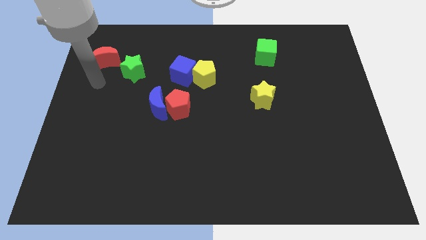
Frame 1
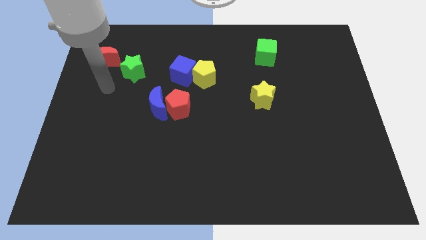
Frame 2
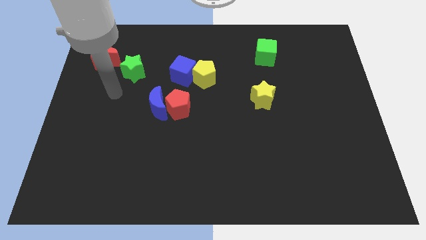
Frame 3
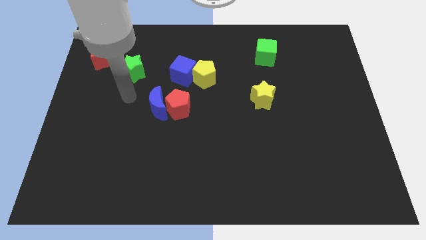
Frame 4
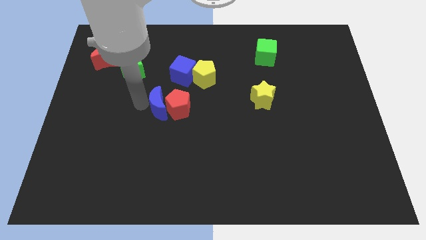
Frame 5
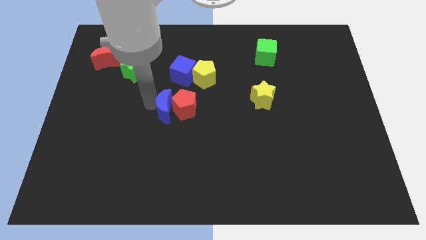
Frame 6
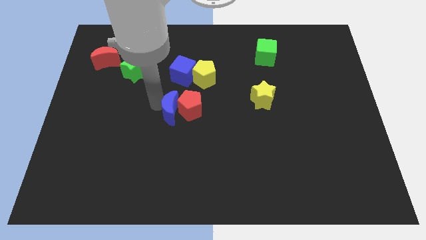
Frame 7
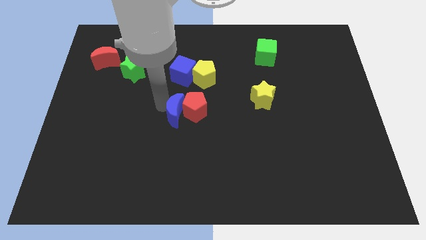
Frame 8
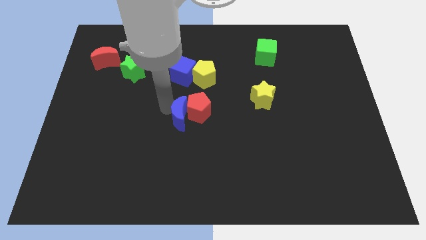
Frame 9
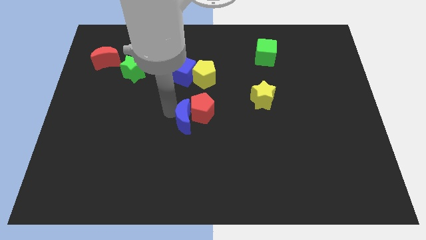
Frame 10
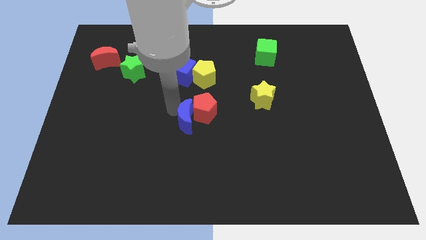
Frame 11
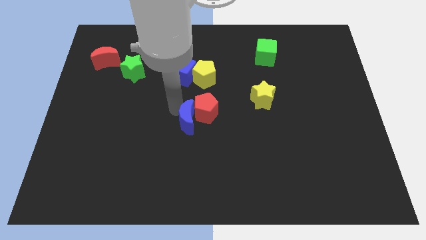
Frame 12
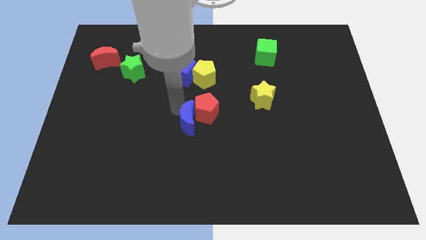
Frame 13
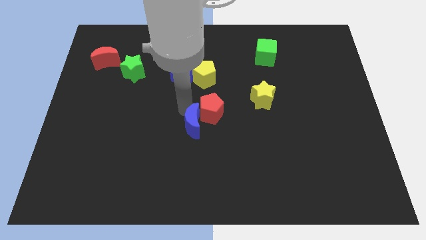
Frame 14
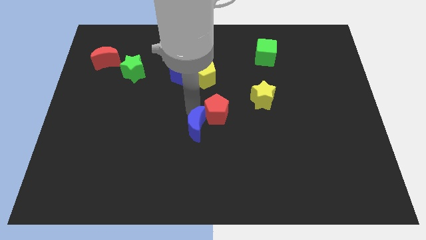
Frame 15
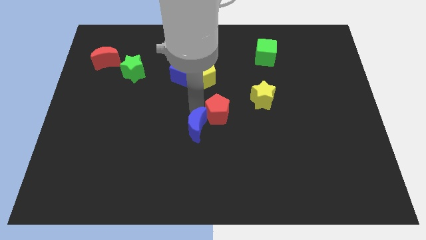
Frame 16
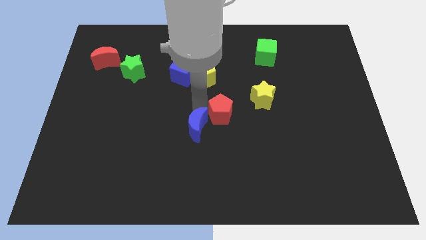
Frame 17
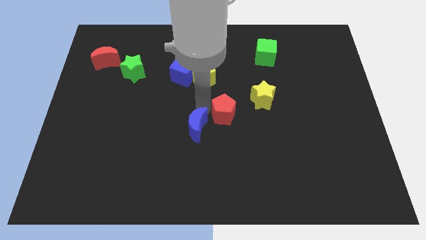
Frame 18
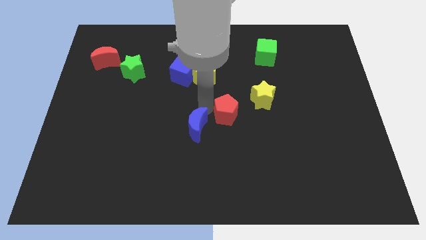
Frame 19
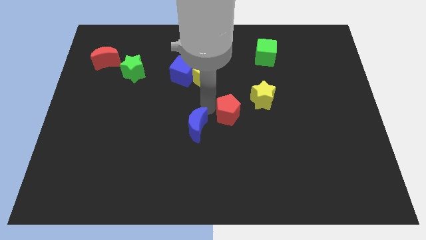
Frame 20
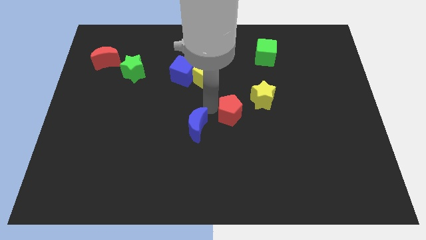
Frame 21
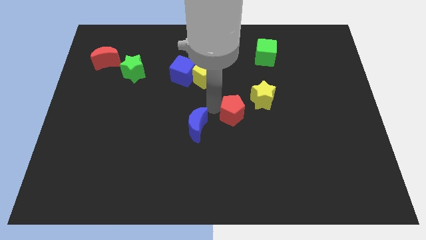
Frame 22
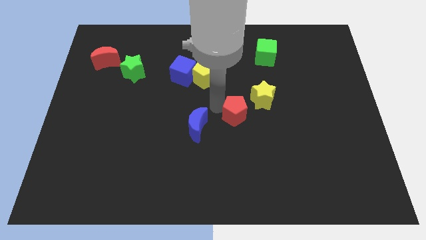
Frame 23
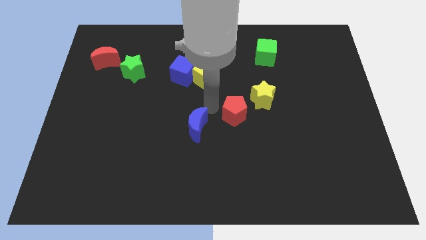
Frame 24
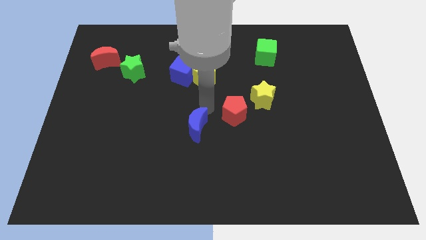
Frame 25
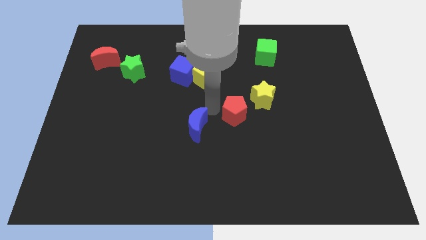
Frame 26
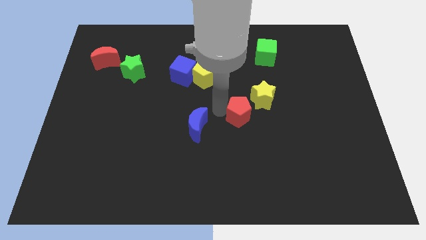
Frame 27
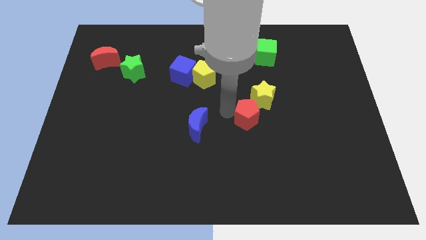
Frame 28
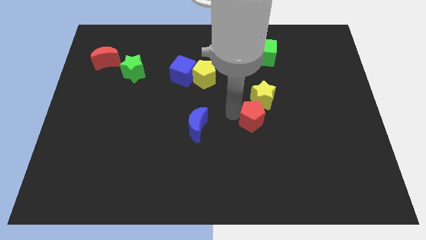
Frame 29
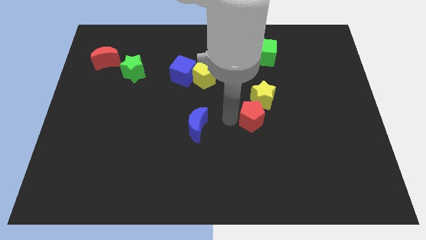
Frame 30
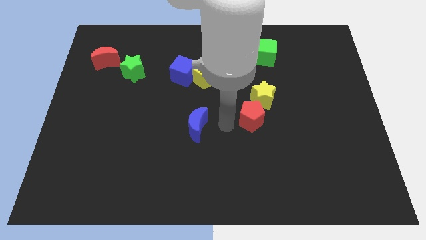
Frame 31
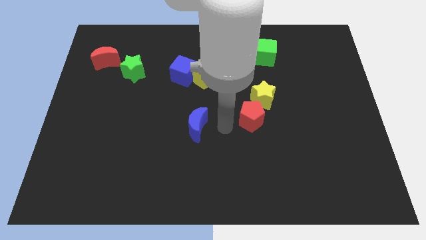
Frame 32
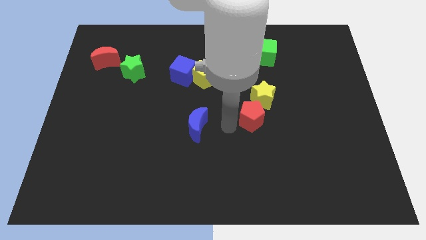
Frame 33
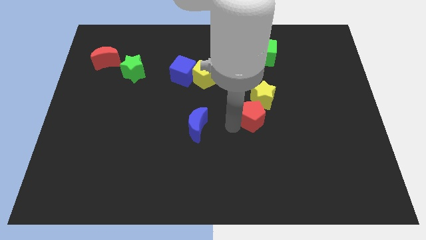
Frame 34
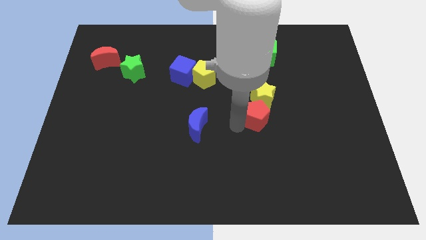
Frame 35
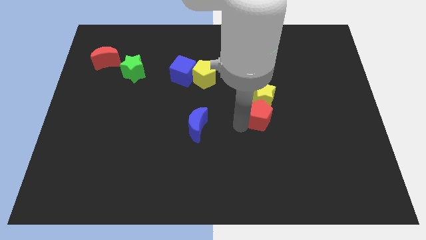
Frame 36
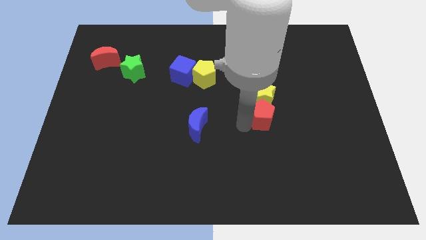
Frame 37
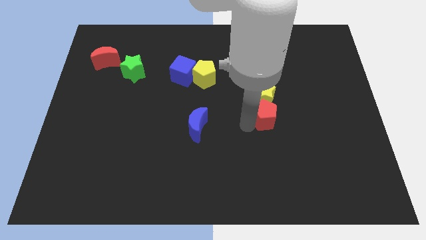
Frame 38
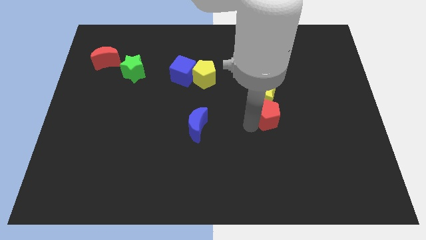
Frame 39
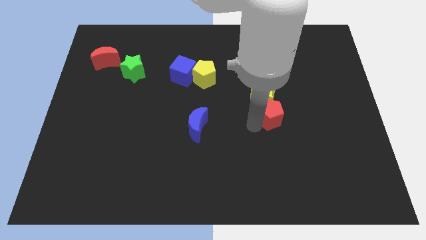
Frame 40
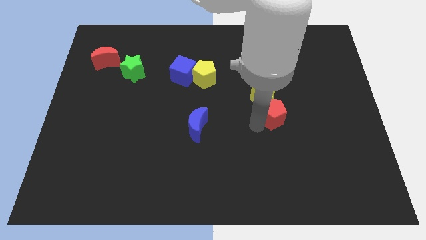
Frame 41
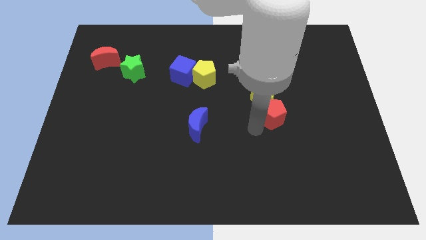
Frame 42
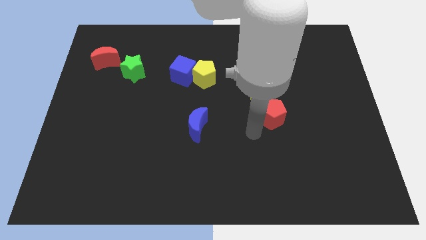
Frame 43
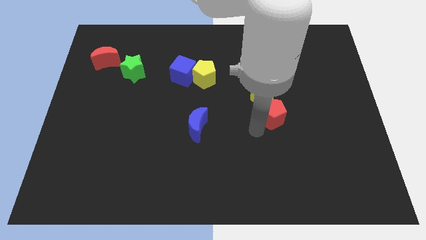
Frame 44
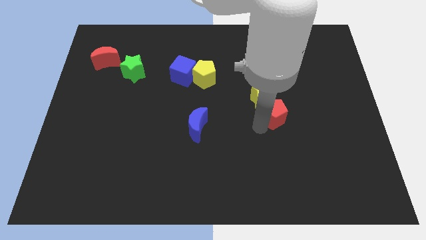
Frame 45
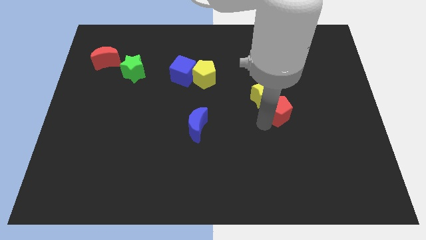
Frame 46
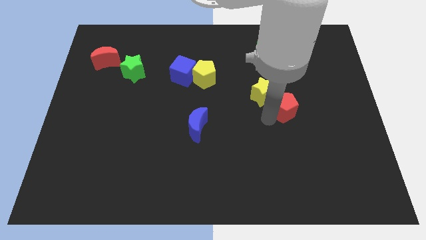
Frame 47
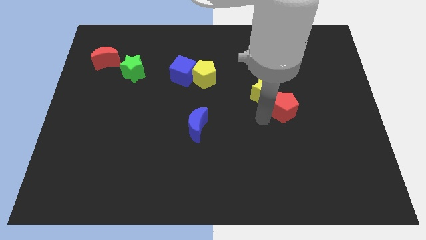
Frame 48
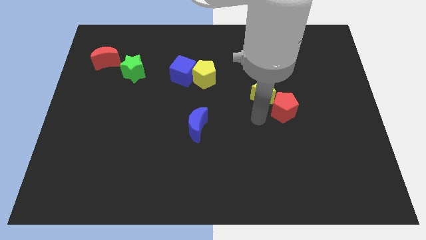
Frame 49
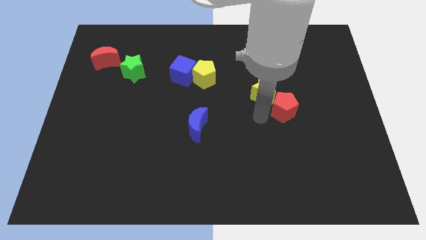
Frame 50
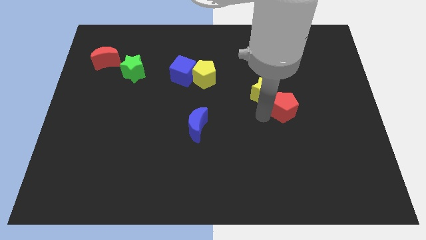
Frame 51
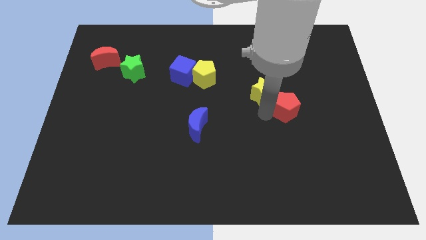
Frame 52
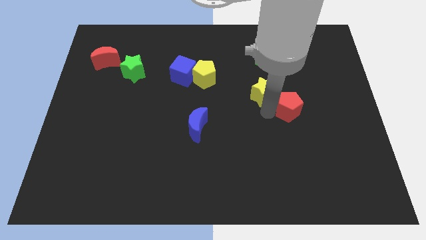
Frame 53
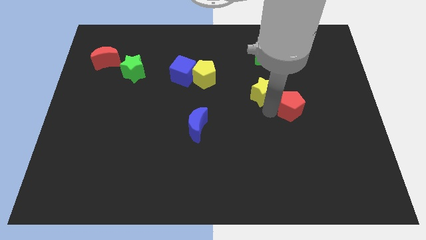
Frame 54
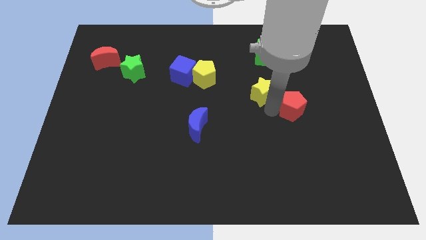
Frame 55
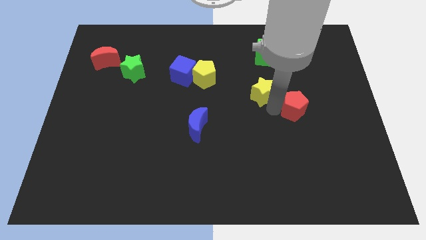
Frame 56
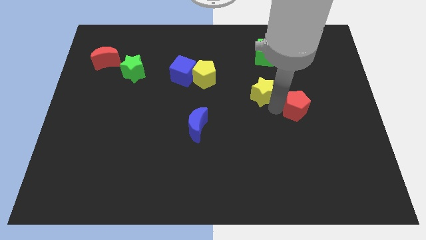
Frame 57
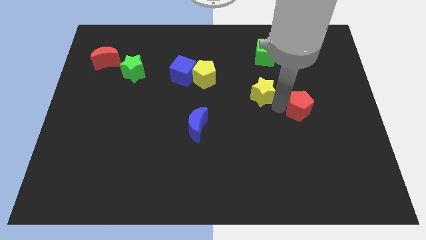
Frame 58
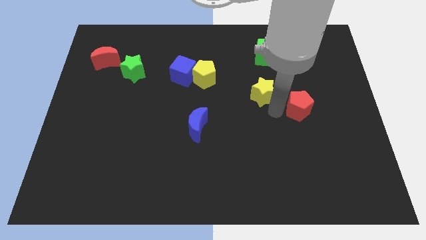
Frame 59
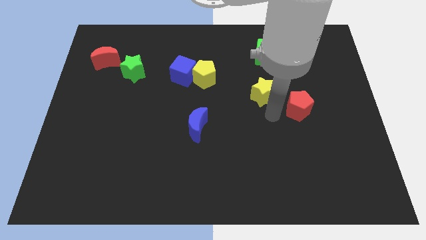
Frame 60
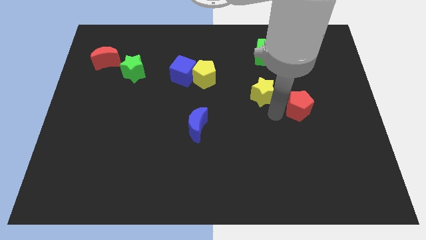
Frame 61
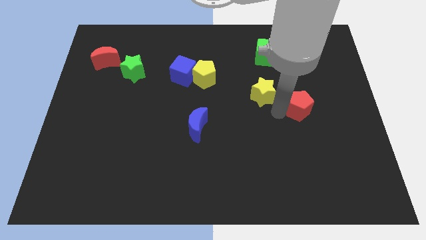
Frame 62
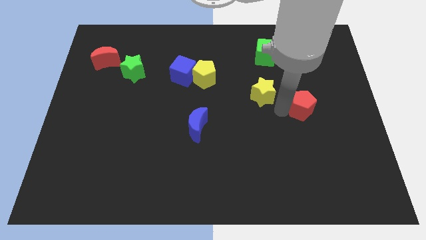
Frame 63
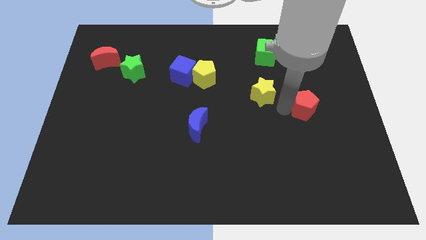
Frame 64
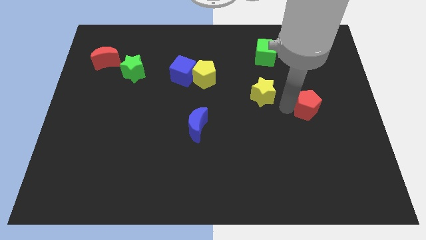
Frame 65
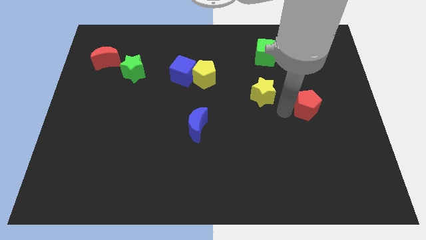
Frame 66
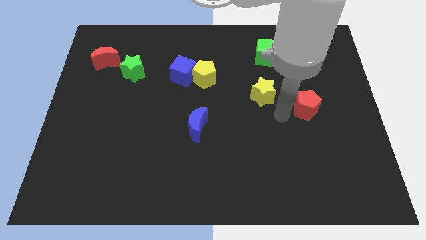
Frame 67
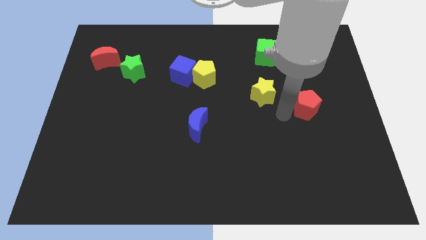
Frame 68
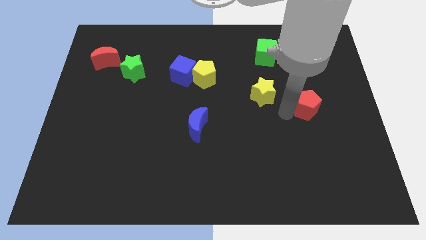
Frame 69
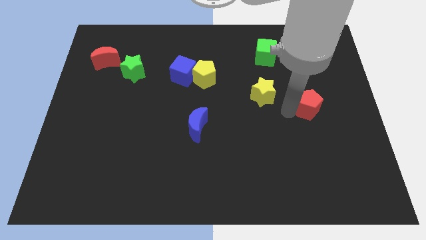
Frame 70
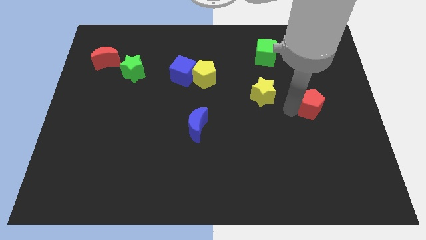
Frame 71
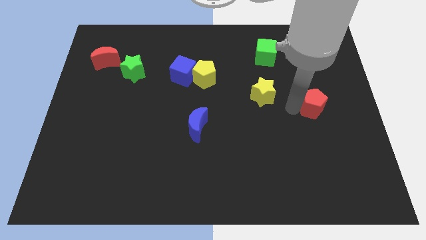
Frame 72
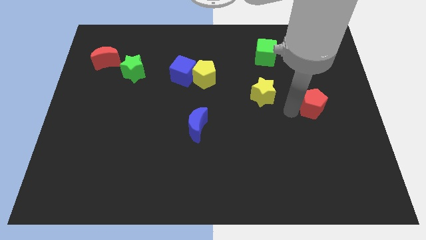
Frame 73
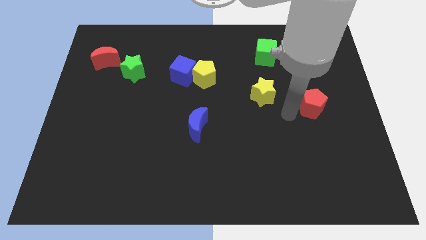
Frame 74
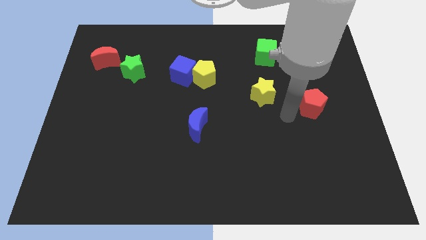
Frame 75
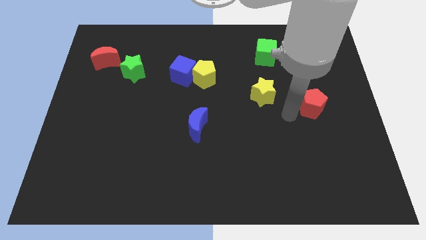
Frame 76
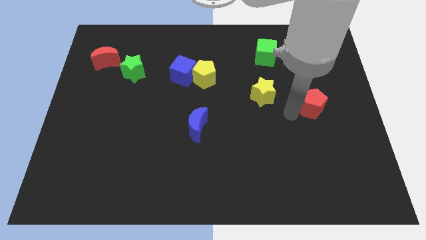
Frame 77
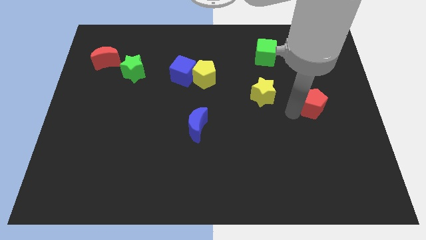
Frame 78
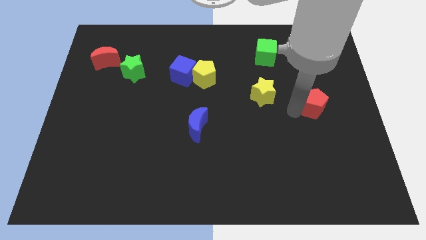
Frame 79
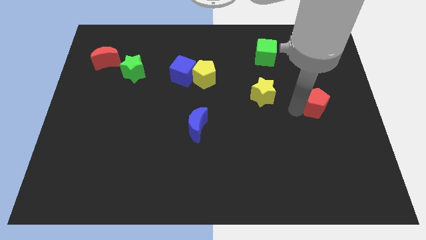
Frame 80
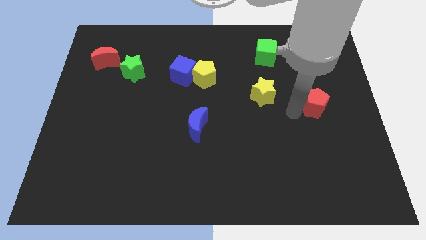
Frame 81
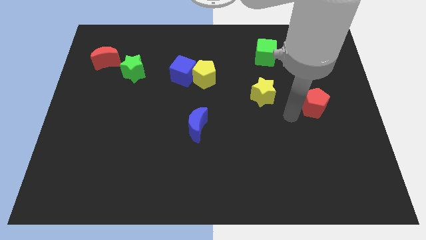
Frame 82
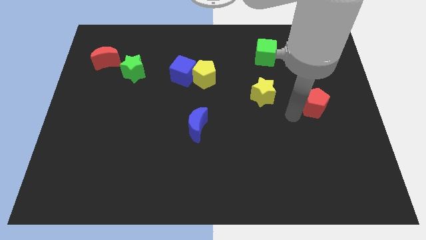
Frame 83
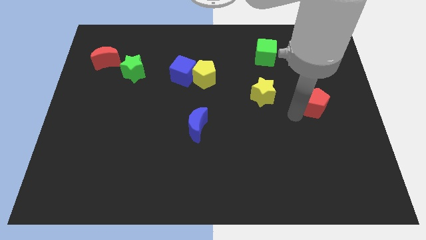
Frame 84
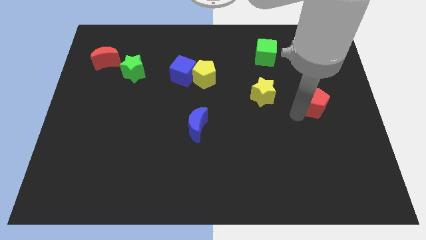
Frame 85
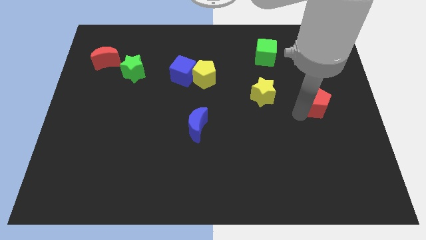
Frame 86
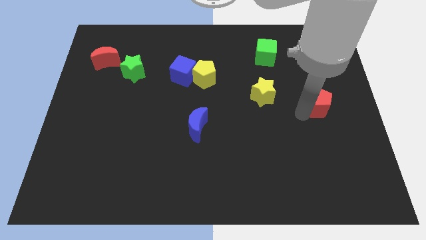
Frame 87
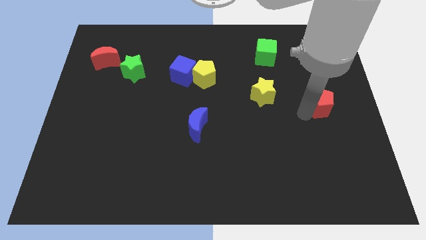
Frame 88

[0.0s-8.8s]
put the red pentagon to the right side
